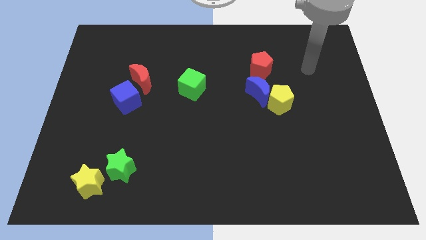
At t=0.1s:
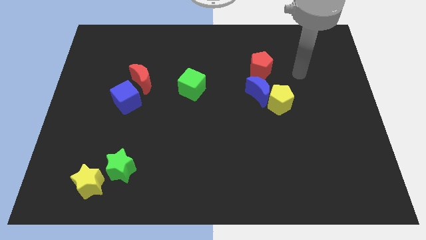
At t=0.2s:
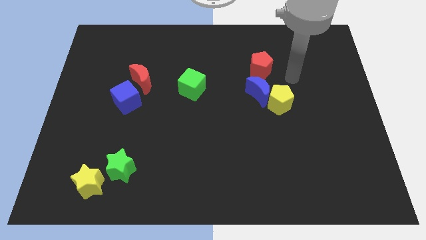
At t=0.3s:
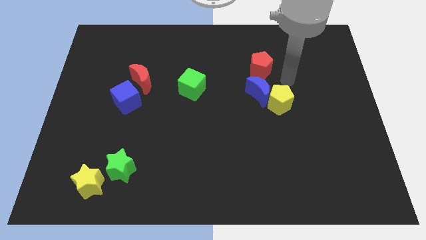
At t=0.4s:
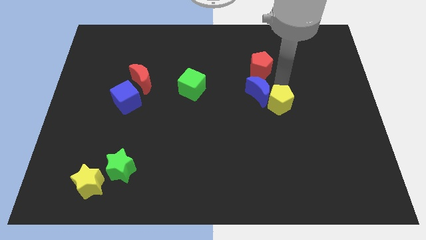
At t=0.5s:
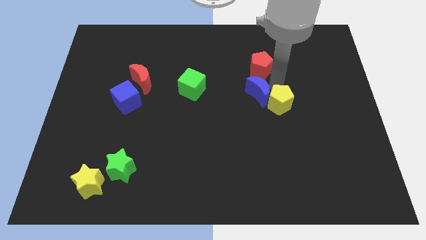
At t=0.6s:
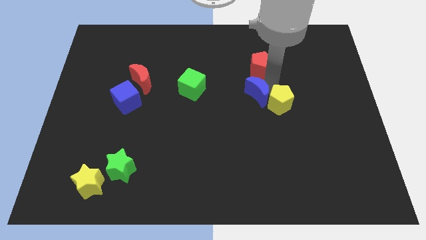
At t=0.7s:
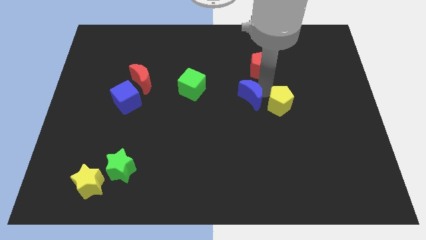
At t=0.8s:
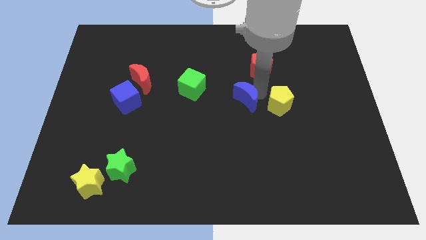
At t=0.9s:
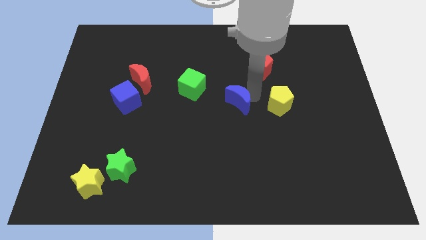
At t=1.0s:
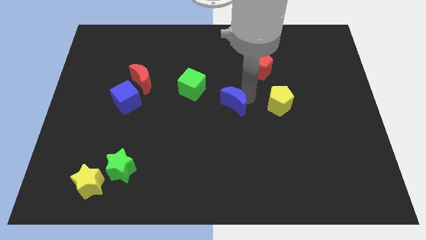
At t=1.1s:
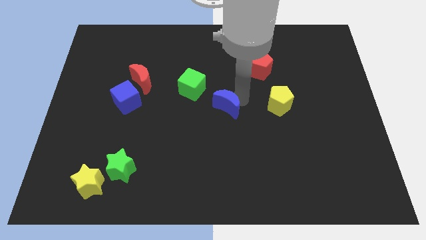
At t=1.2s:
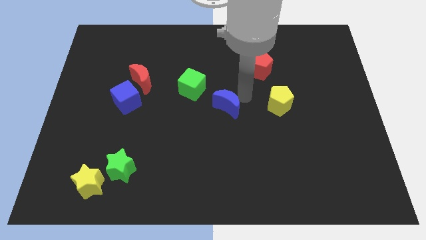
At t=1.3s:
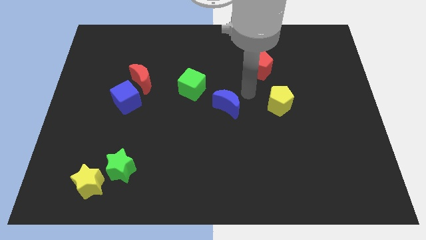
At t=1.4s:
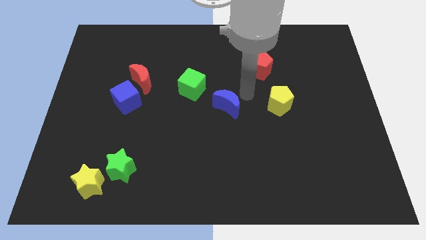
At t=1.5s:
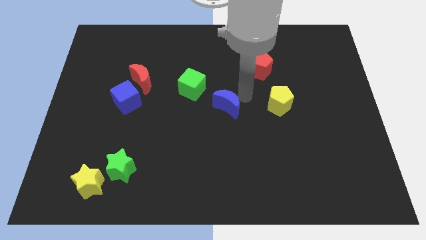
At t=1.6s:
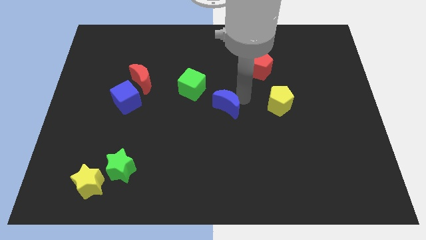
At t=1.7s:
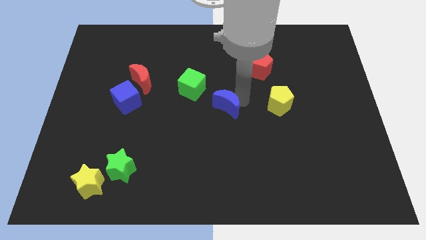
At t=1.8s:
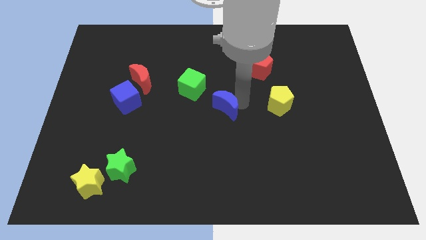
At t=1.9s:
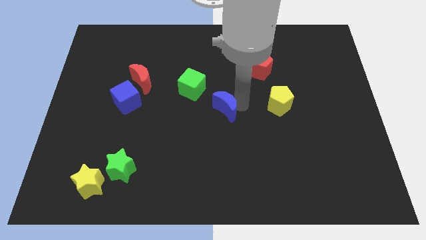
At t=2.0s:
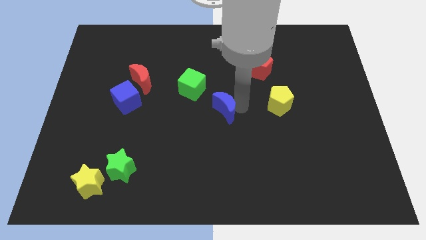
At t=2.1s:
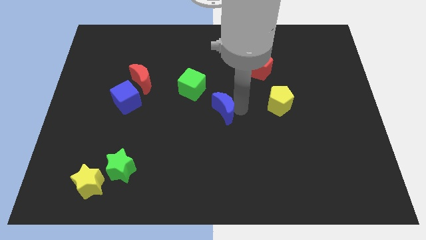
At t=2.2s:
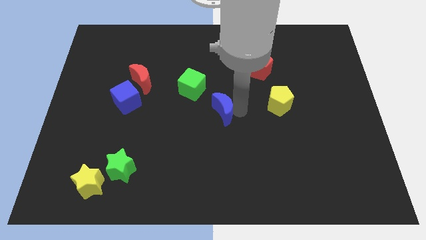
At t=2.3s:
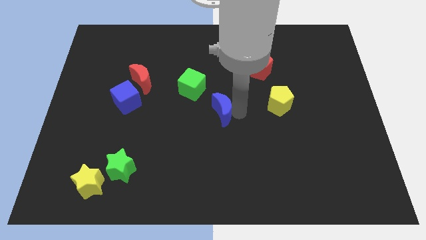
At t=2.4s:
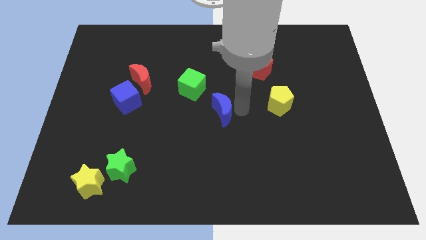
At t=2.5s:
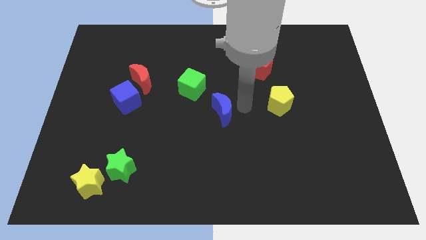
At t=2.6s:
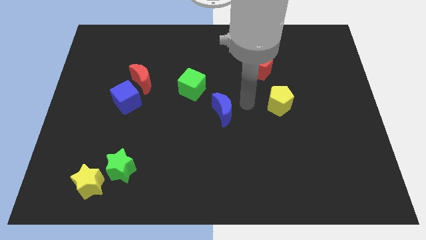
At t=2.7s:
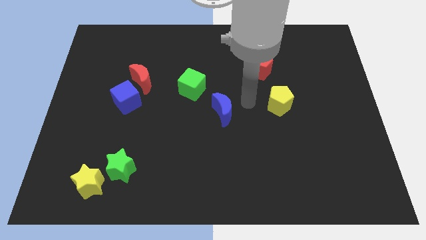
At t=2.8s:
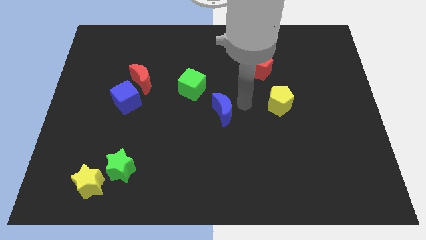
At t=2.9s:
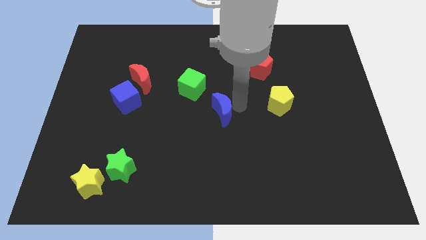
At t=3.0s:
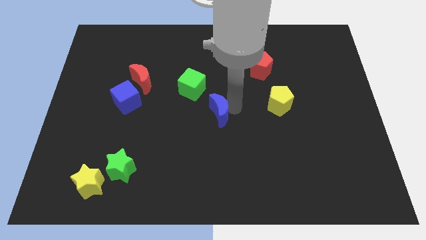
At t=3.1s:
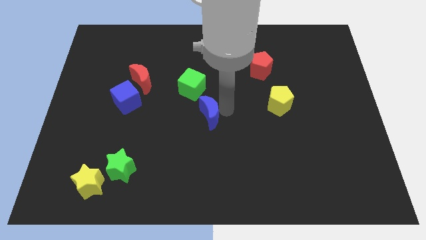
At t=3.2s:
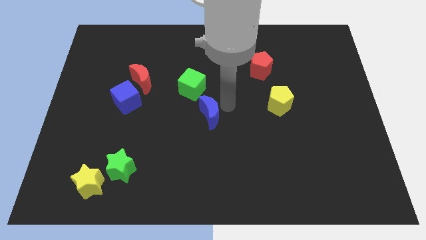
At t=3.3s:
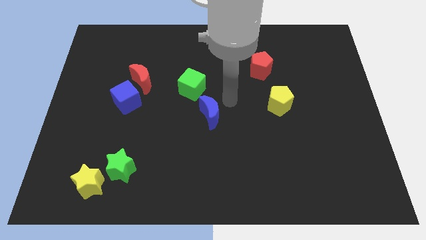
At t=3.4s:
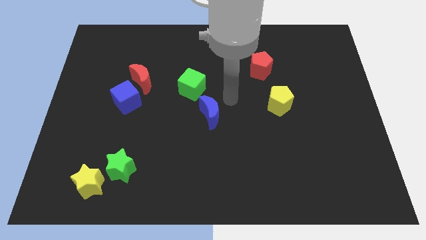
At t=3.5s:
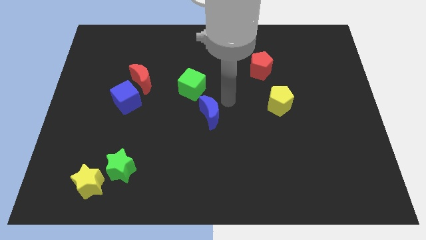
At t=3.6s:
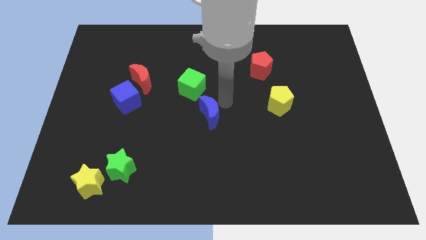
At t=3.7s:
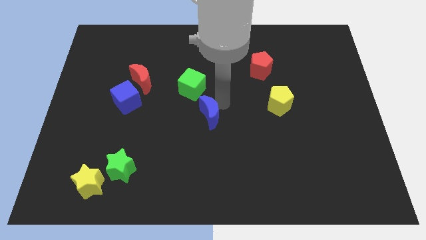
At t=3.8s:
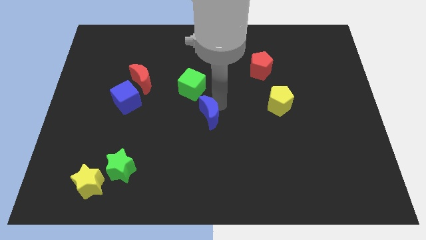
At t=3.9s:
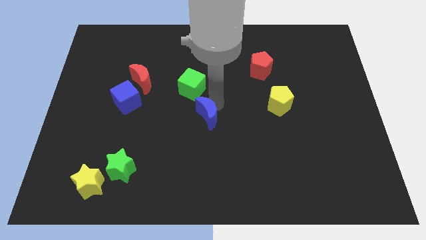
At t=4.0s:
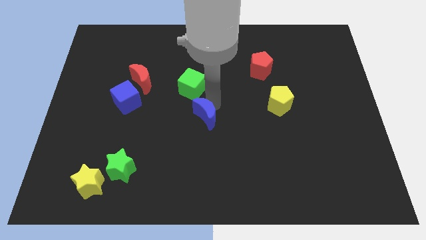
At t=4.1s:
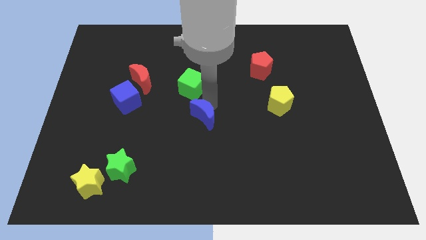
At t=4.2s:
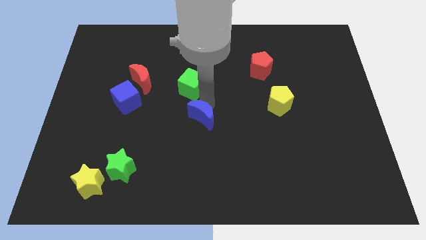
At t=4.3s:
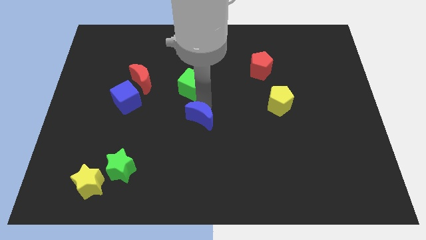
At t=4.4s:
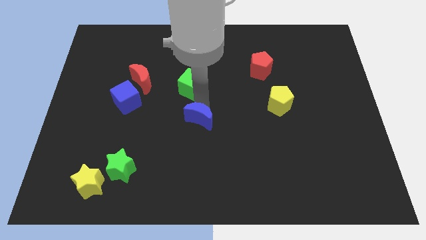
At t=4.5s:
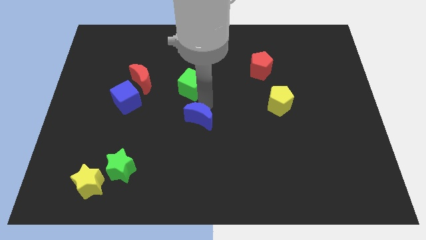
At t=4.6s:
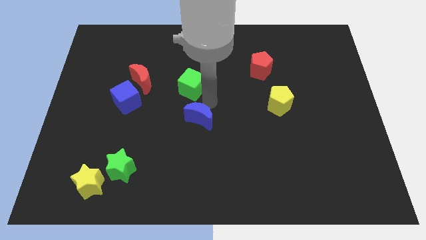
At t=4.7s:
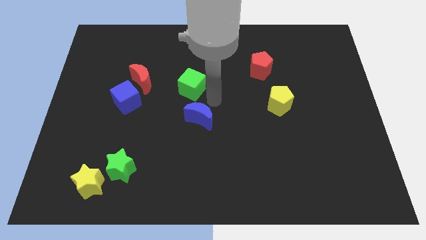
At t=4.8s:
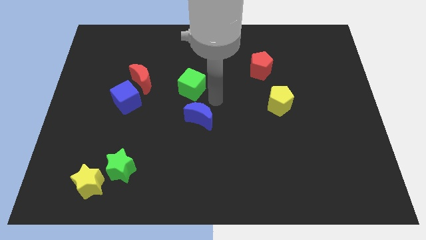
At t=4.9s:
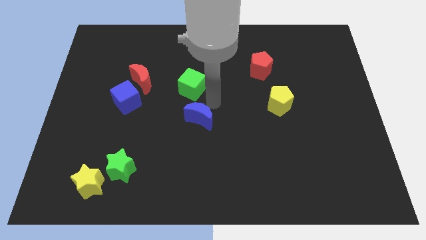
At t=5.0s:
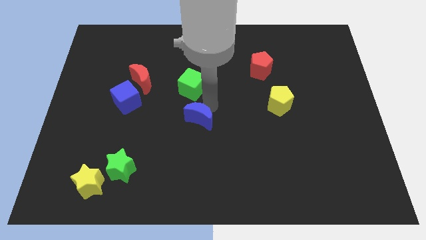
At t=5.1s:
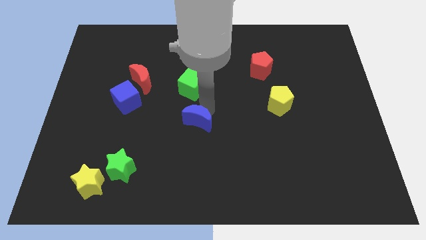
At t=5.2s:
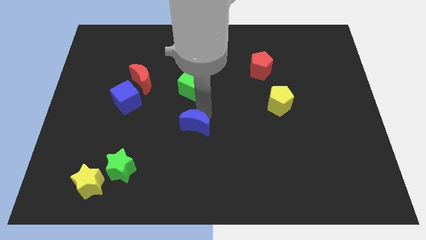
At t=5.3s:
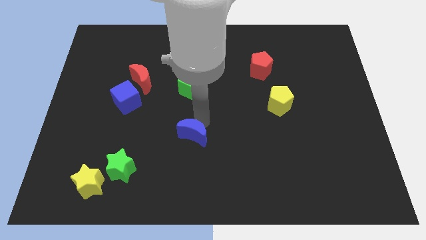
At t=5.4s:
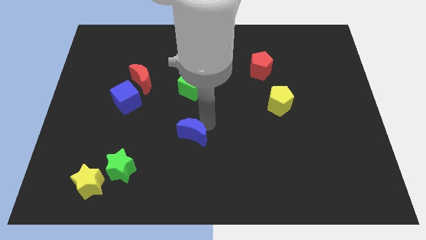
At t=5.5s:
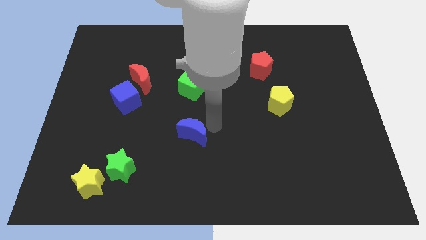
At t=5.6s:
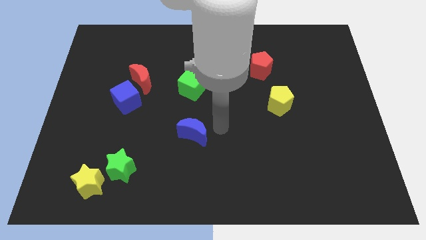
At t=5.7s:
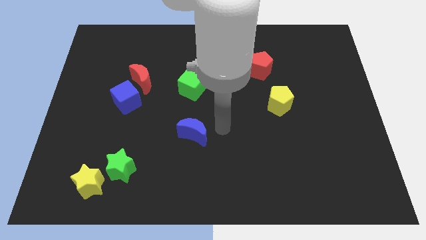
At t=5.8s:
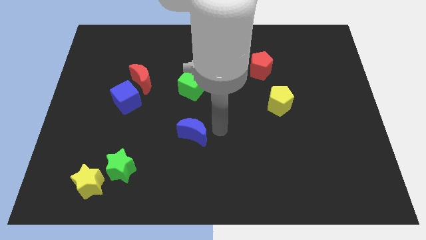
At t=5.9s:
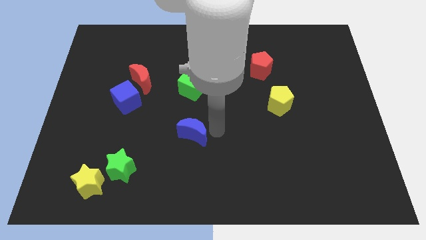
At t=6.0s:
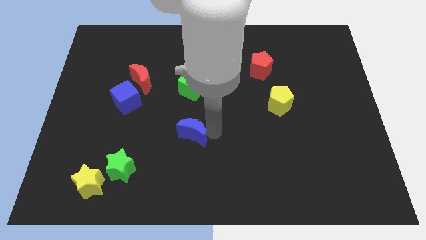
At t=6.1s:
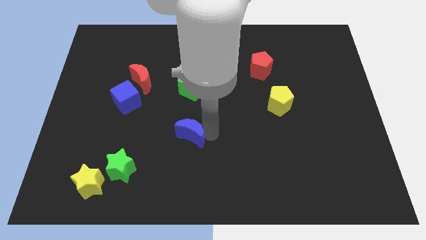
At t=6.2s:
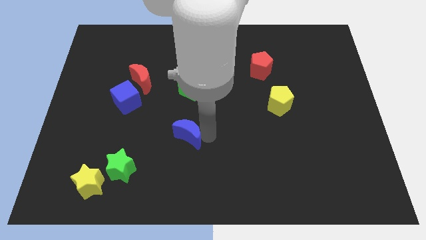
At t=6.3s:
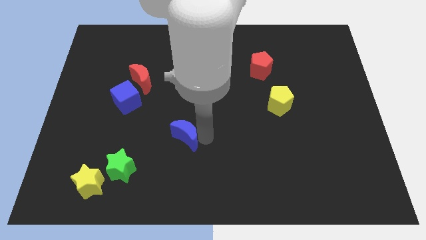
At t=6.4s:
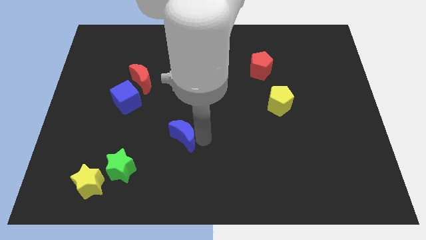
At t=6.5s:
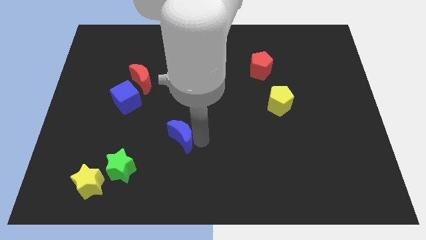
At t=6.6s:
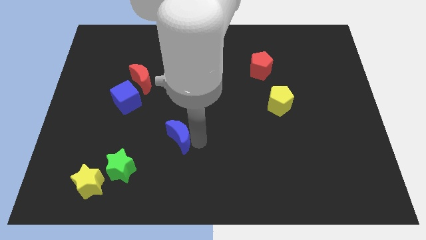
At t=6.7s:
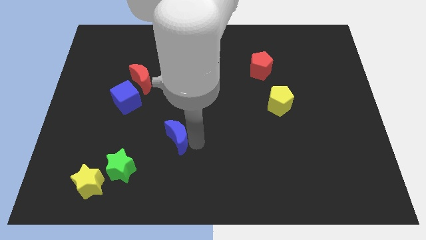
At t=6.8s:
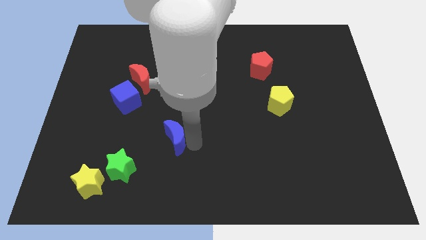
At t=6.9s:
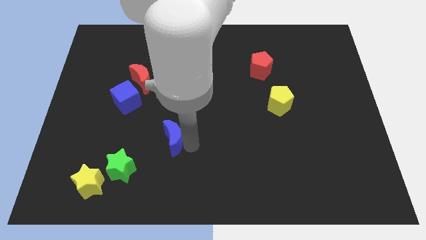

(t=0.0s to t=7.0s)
push the blue moon to the top right of the green star

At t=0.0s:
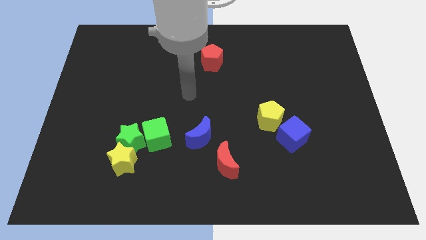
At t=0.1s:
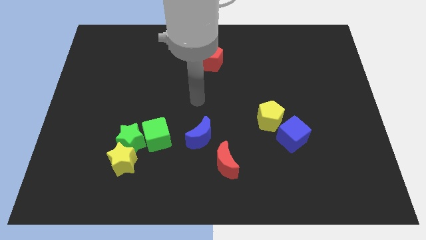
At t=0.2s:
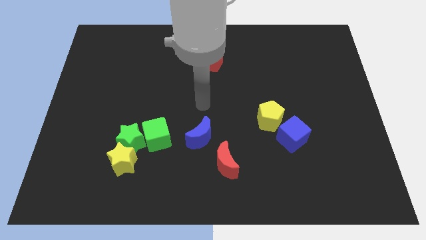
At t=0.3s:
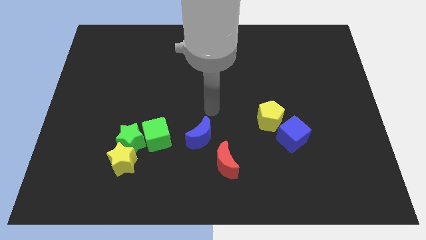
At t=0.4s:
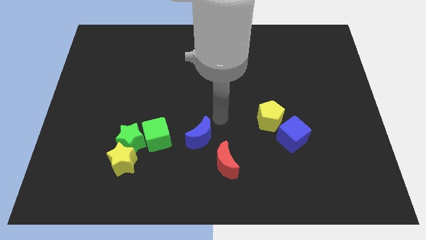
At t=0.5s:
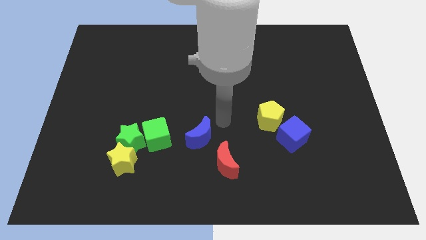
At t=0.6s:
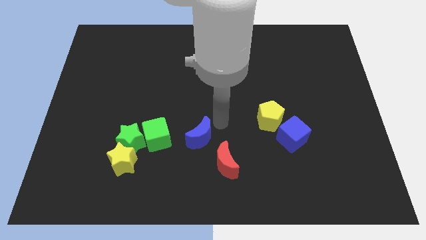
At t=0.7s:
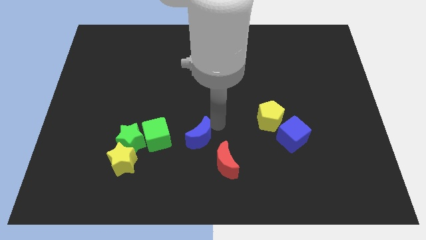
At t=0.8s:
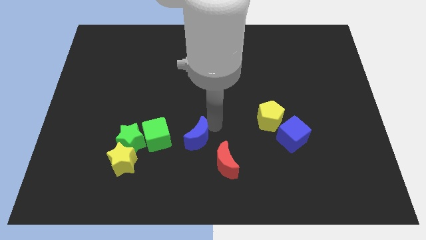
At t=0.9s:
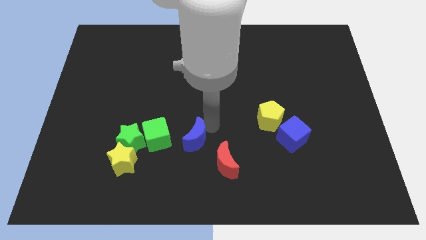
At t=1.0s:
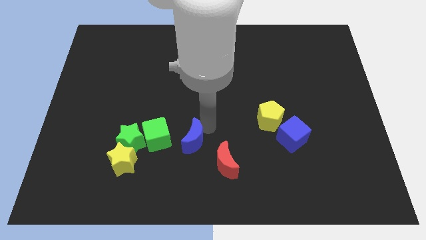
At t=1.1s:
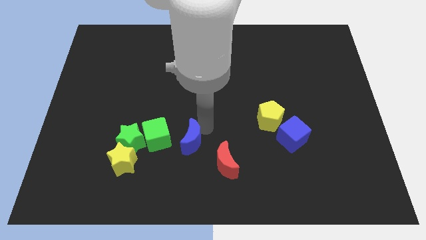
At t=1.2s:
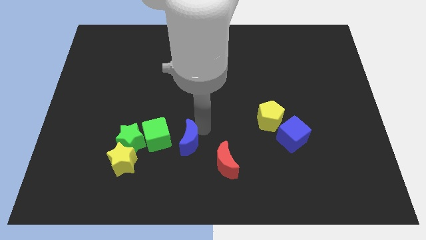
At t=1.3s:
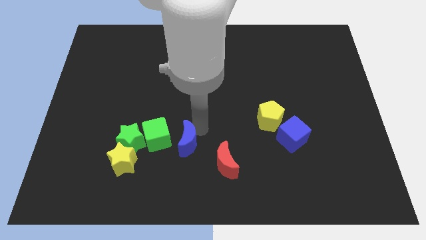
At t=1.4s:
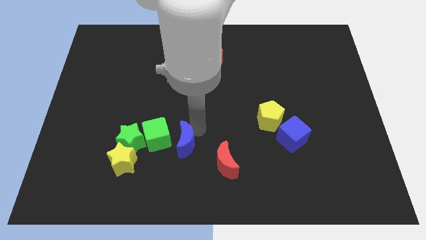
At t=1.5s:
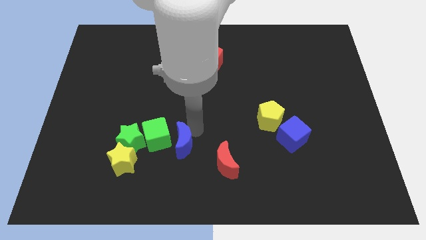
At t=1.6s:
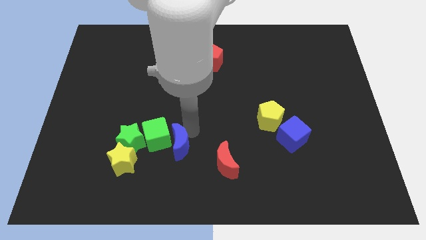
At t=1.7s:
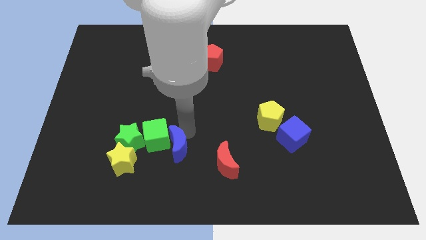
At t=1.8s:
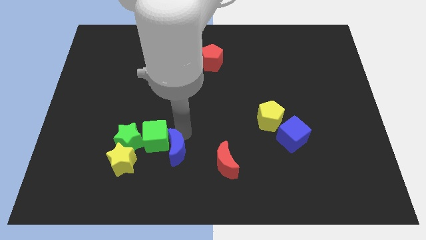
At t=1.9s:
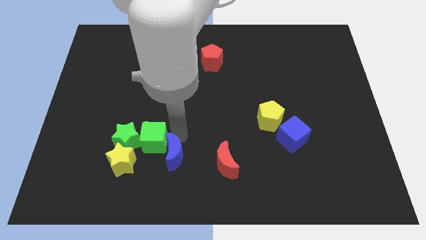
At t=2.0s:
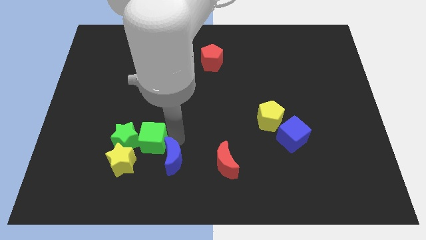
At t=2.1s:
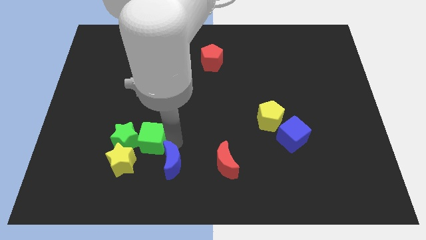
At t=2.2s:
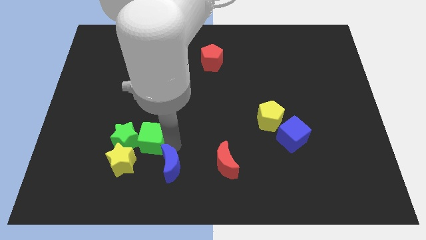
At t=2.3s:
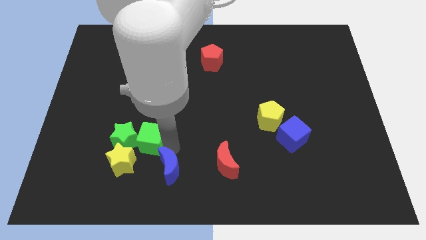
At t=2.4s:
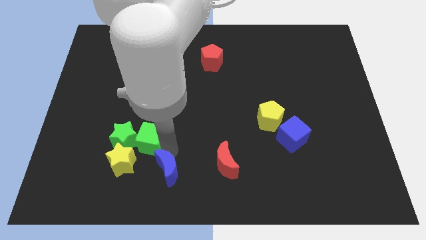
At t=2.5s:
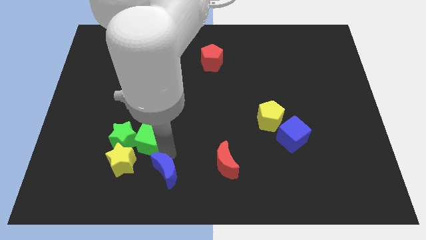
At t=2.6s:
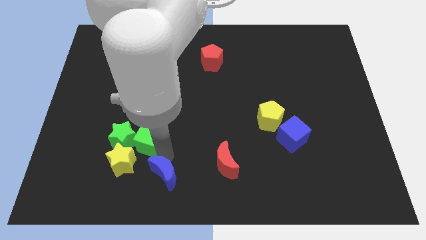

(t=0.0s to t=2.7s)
slide the blue moon diagonally down and to the right of the yellow star
